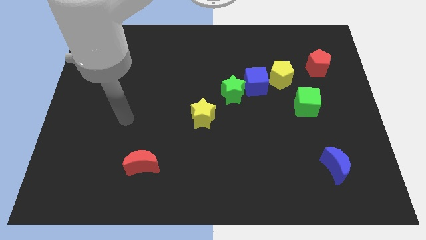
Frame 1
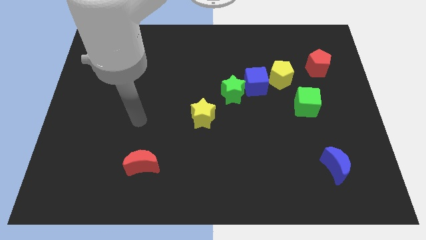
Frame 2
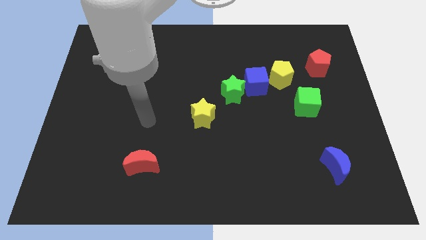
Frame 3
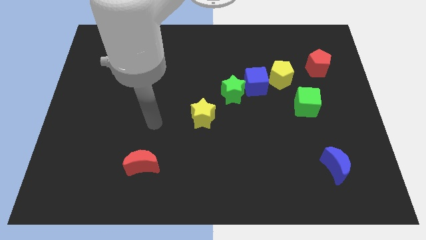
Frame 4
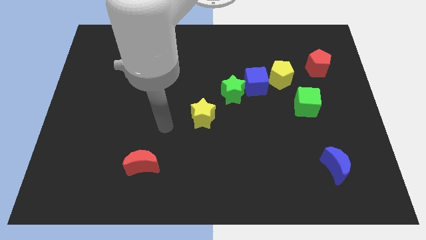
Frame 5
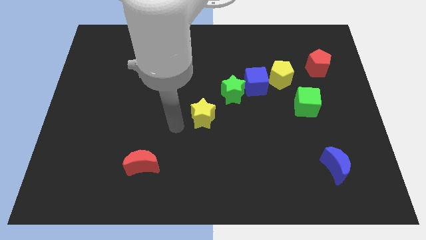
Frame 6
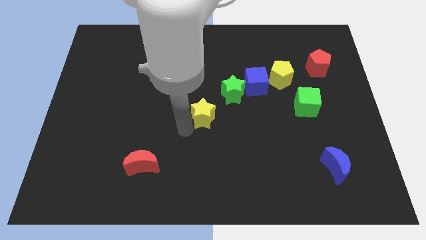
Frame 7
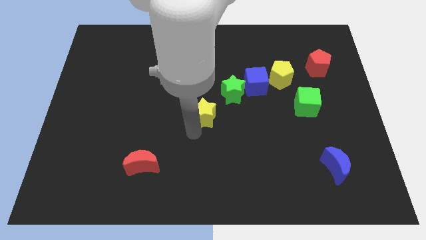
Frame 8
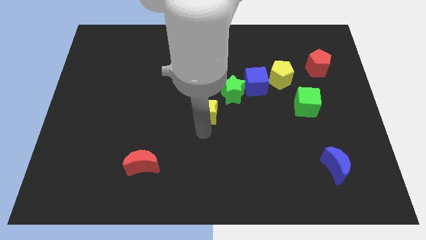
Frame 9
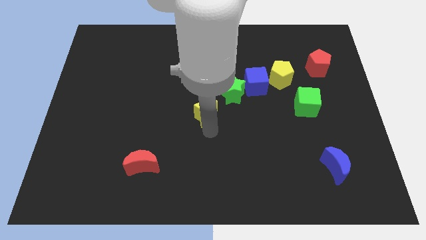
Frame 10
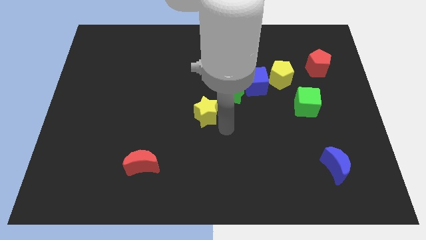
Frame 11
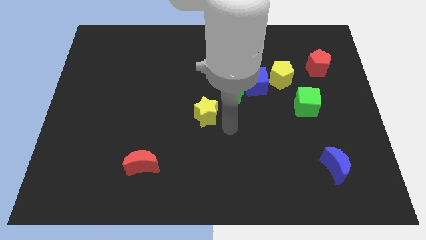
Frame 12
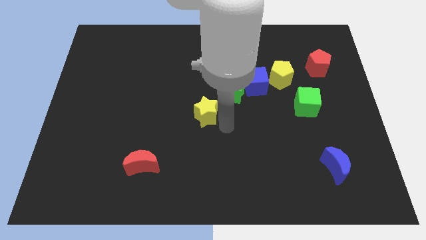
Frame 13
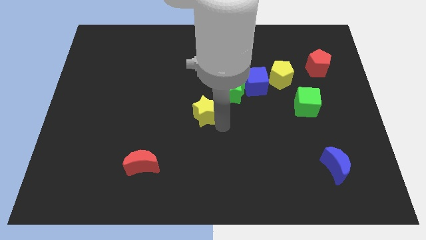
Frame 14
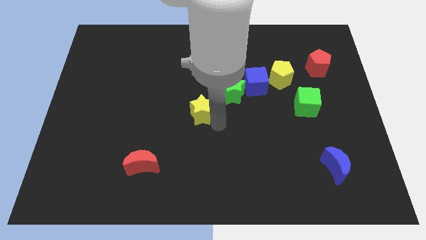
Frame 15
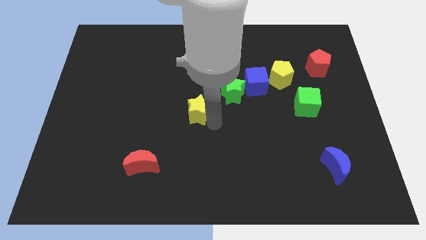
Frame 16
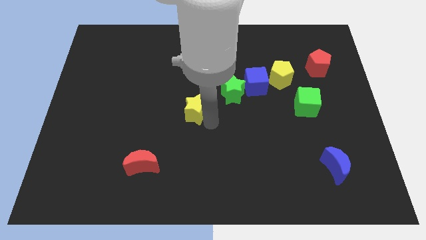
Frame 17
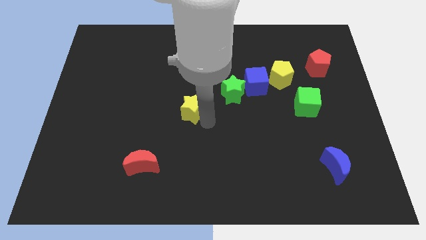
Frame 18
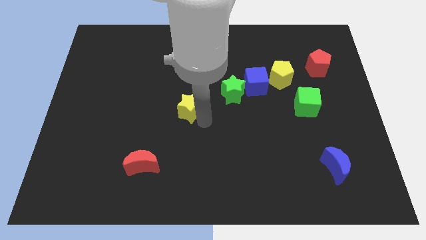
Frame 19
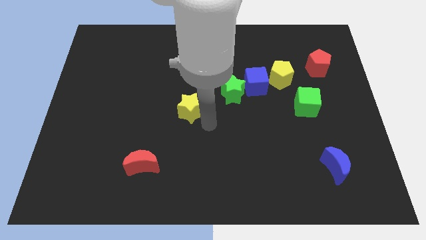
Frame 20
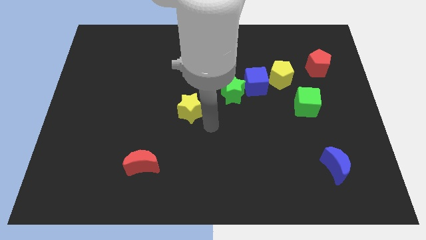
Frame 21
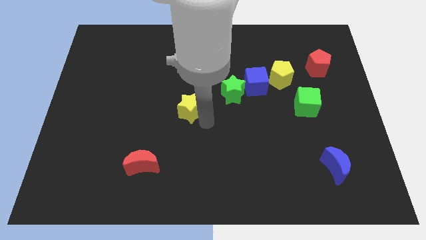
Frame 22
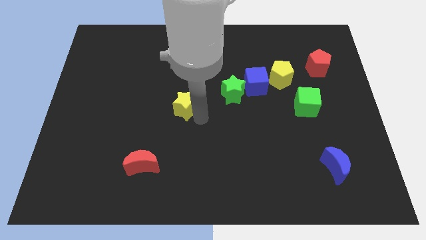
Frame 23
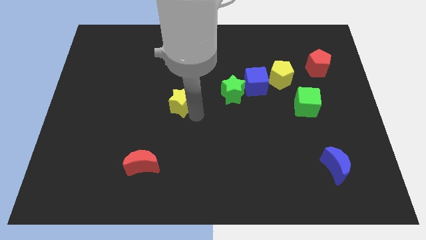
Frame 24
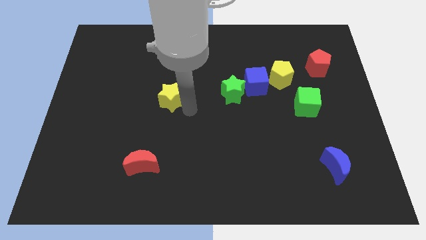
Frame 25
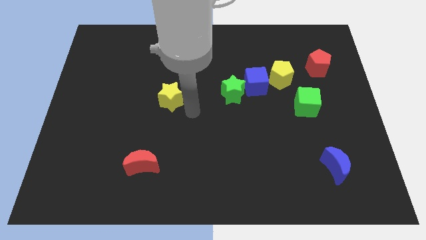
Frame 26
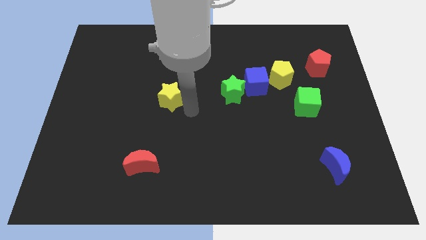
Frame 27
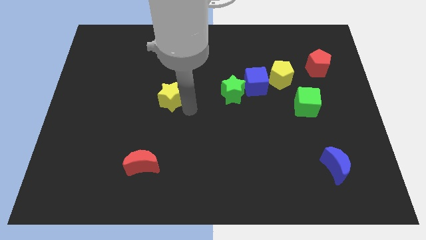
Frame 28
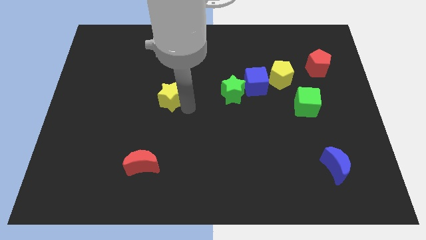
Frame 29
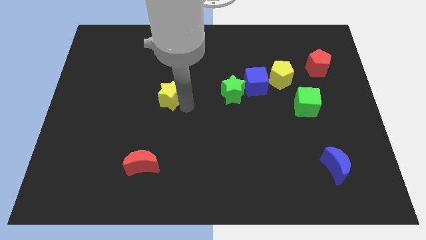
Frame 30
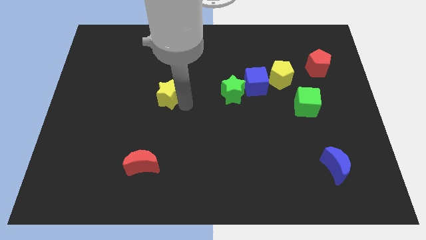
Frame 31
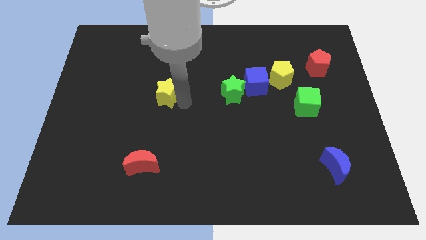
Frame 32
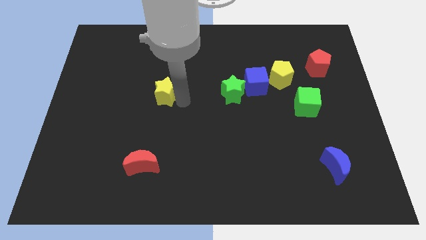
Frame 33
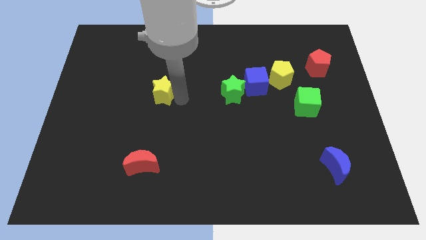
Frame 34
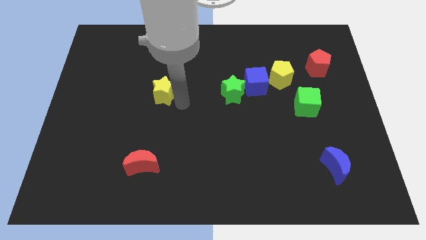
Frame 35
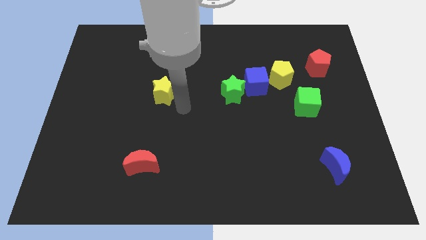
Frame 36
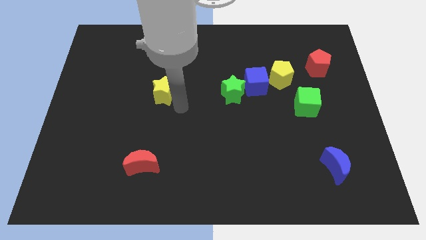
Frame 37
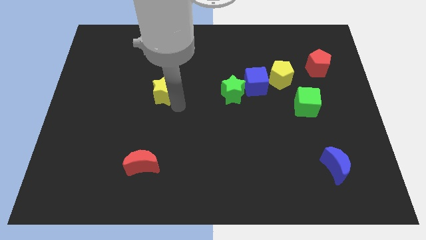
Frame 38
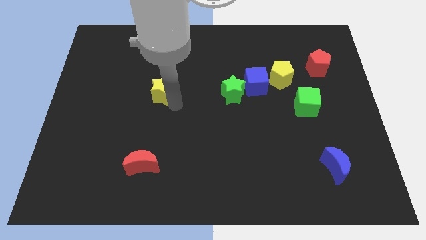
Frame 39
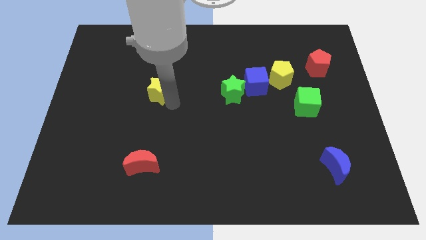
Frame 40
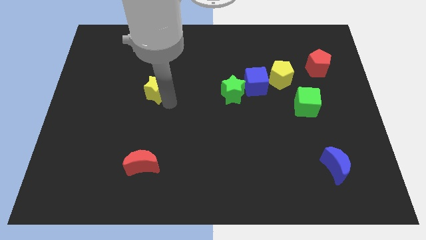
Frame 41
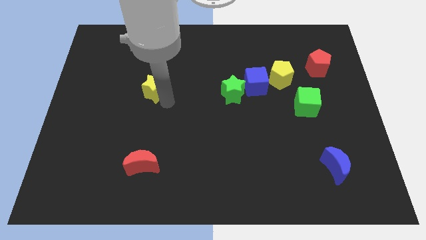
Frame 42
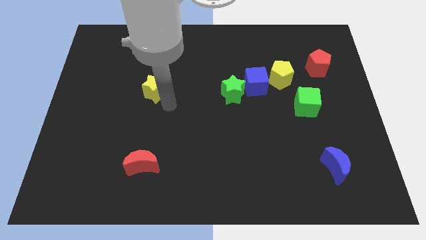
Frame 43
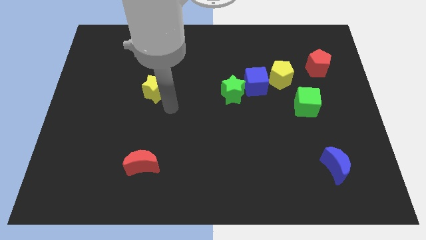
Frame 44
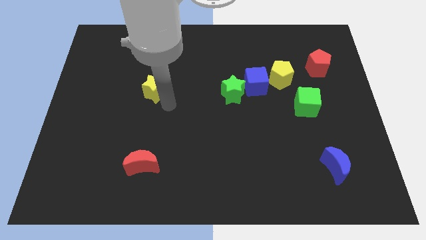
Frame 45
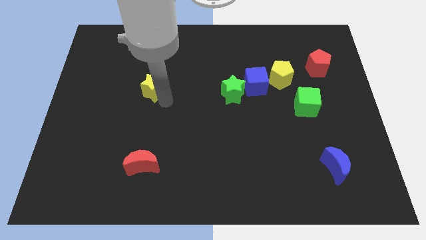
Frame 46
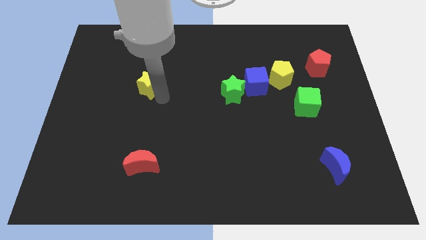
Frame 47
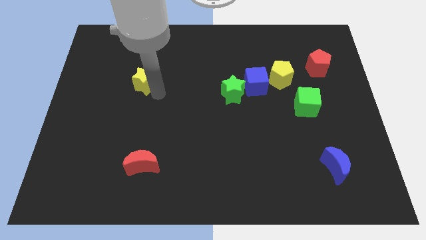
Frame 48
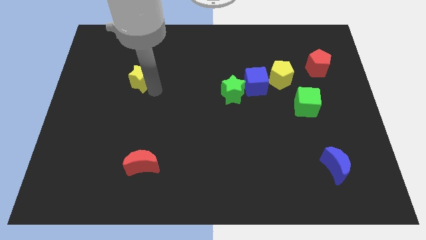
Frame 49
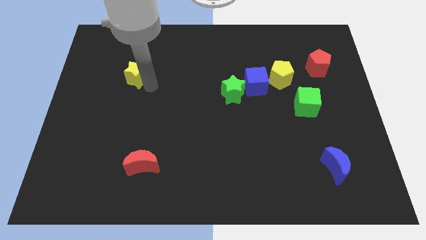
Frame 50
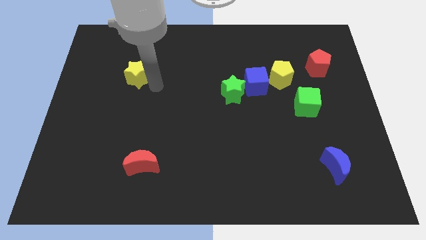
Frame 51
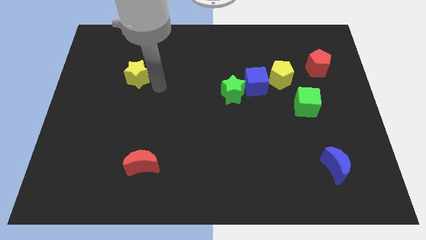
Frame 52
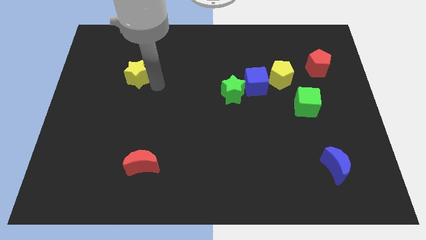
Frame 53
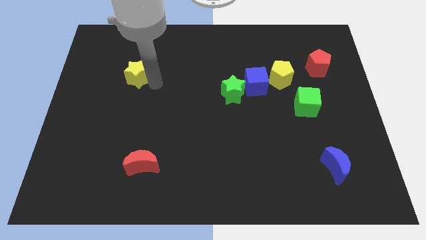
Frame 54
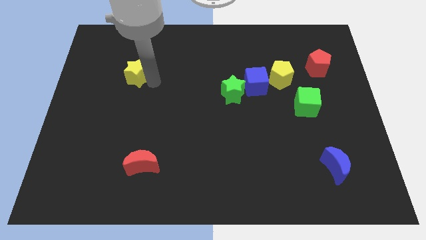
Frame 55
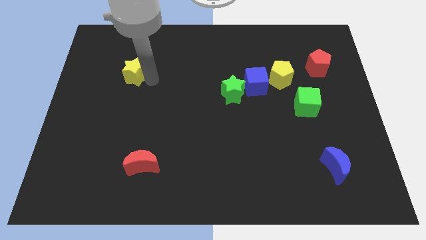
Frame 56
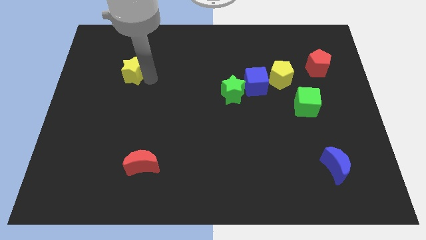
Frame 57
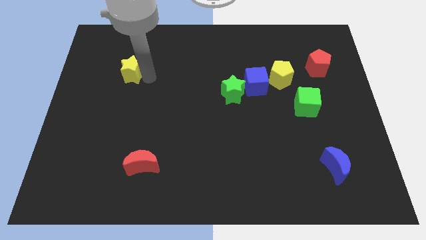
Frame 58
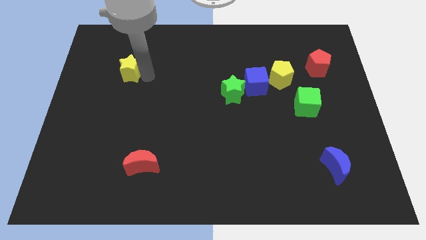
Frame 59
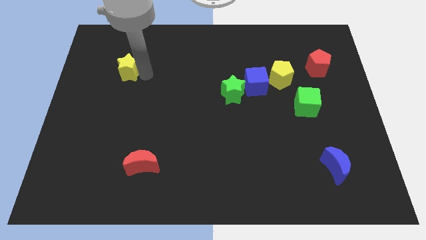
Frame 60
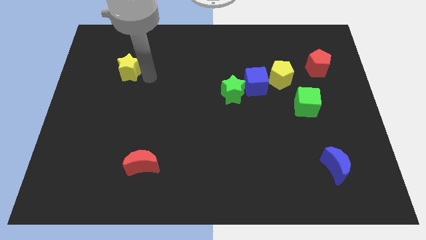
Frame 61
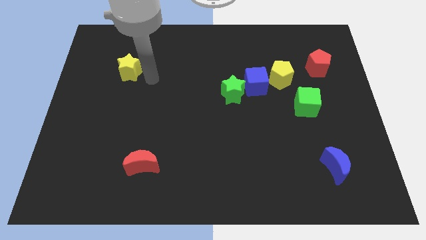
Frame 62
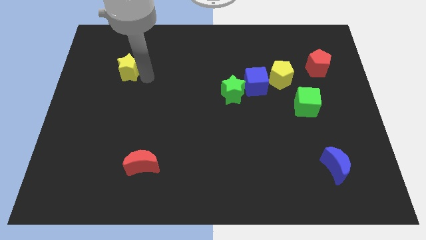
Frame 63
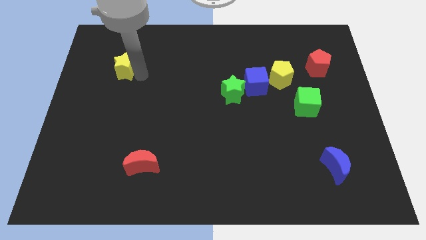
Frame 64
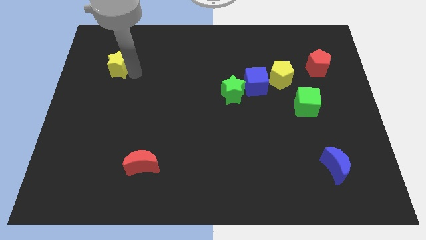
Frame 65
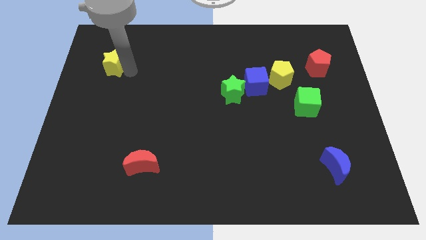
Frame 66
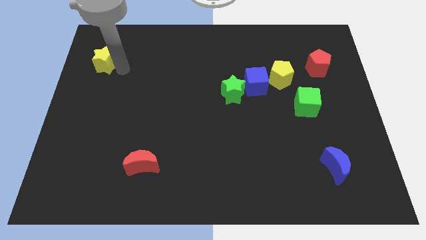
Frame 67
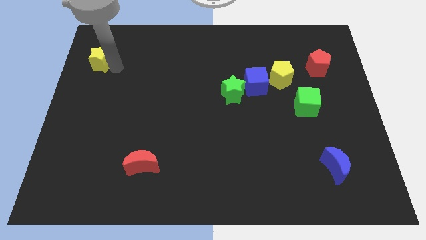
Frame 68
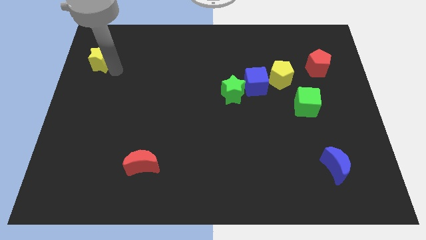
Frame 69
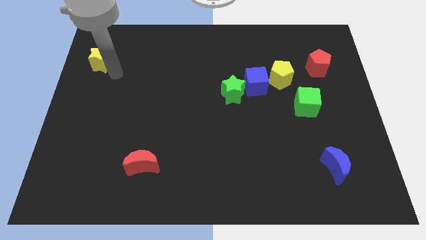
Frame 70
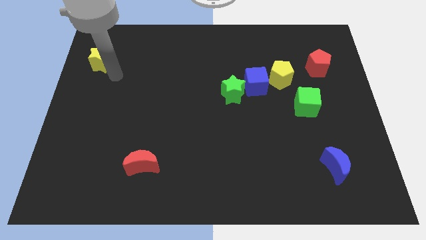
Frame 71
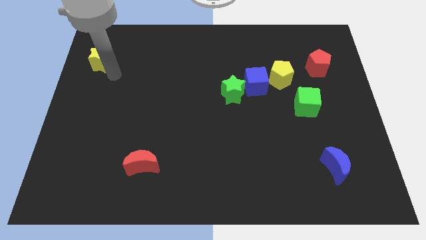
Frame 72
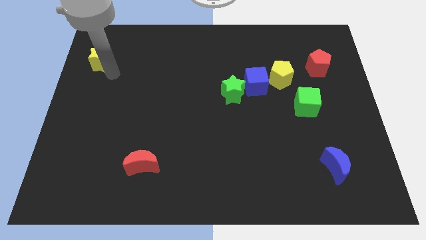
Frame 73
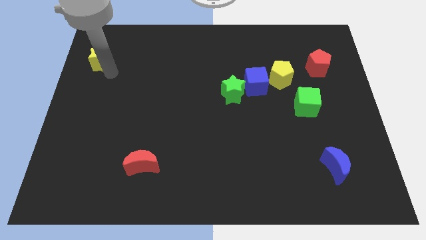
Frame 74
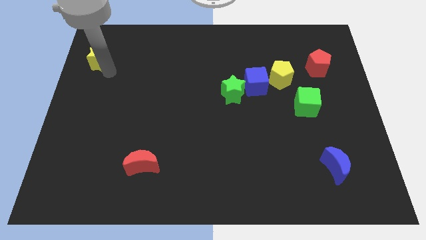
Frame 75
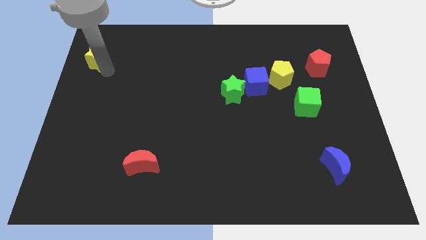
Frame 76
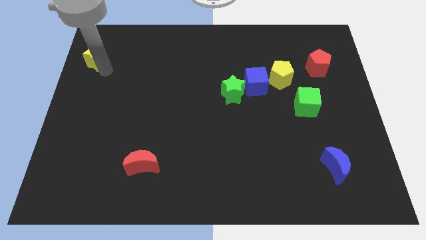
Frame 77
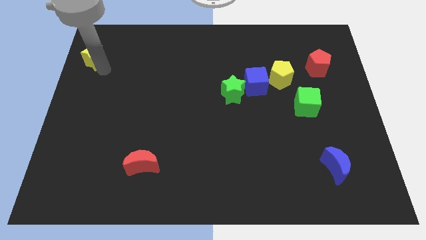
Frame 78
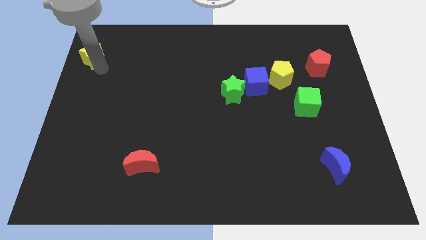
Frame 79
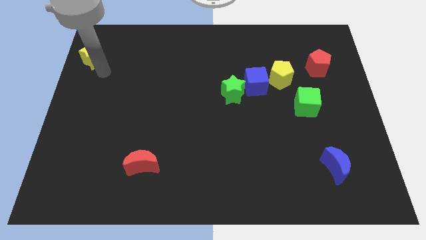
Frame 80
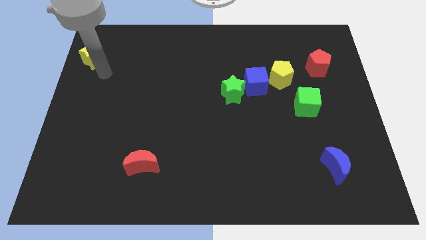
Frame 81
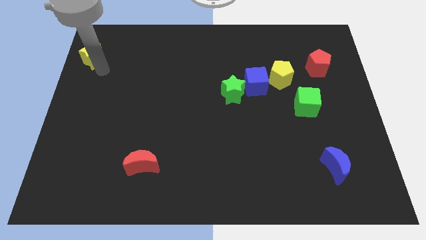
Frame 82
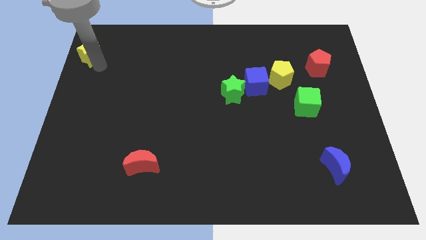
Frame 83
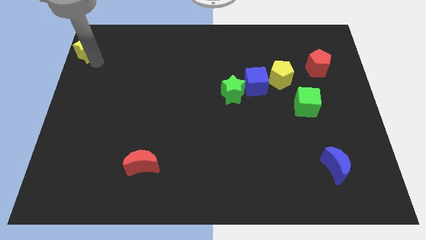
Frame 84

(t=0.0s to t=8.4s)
put the yellow star to the top left
